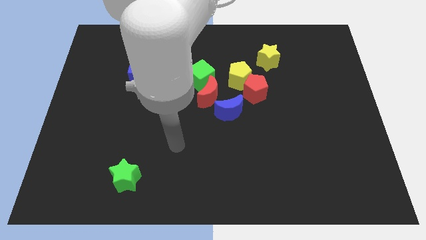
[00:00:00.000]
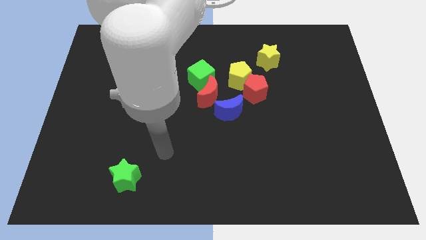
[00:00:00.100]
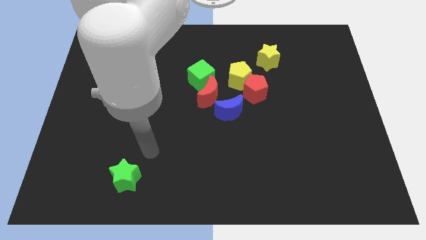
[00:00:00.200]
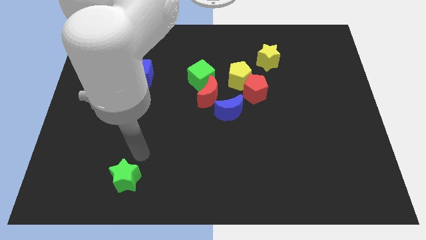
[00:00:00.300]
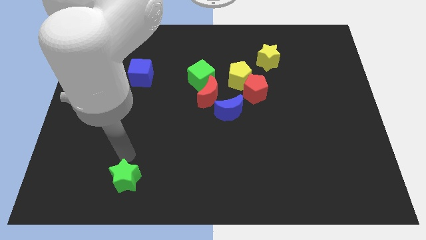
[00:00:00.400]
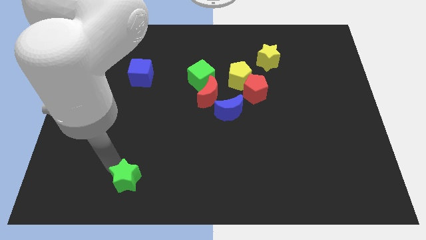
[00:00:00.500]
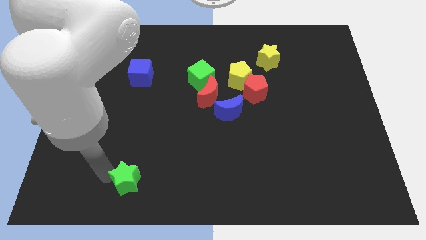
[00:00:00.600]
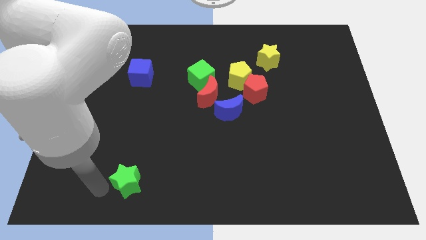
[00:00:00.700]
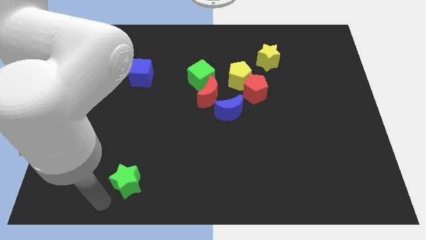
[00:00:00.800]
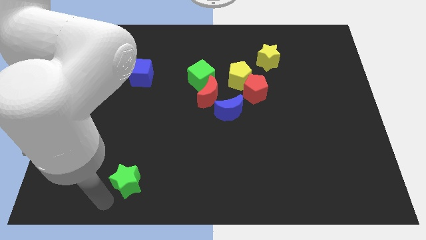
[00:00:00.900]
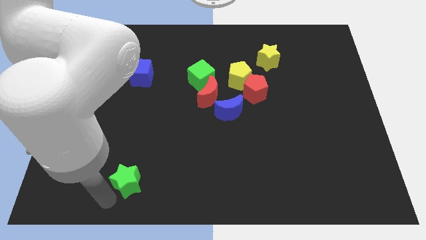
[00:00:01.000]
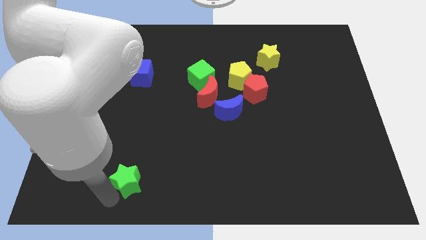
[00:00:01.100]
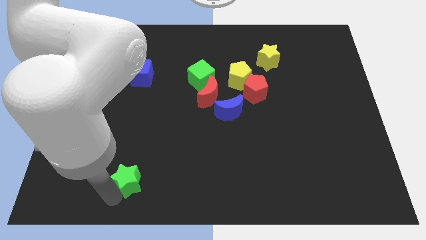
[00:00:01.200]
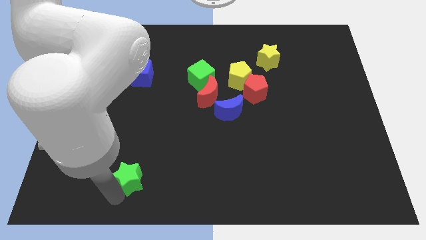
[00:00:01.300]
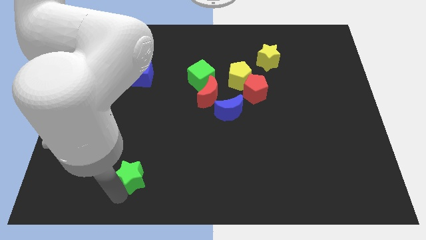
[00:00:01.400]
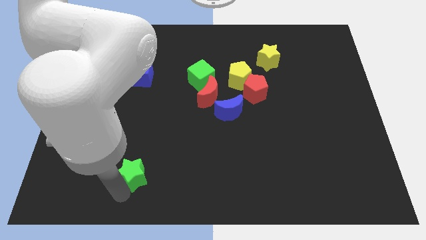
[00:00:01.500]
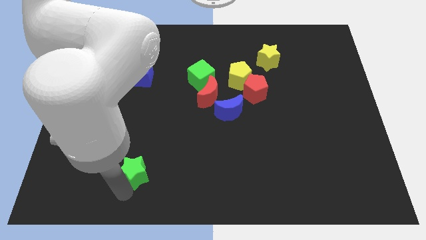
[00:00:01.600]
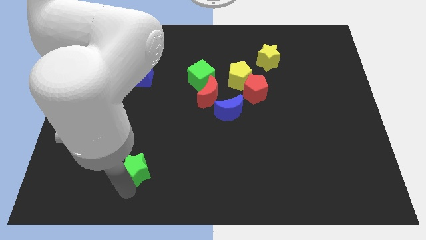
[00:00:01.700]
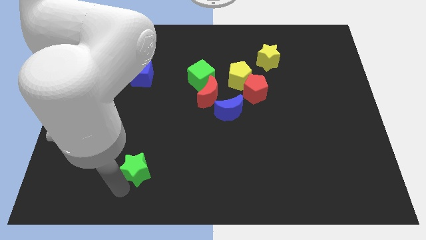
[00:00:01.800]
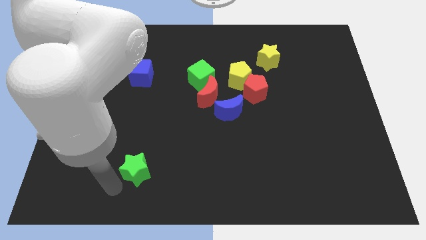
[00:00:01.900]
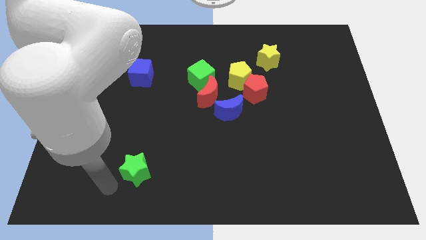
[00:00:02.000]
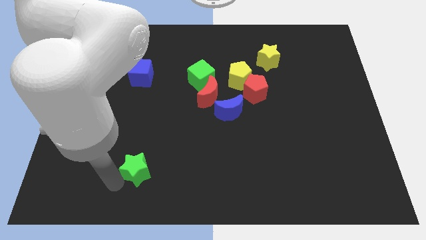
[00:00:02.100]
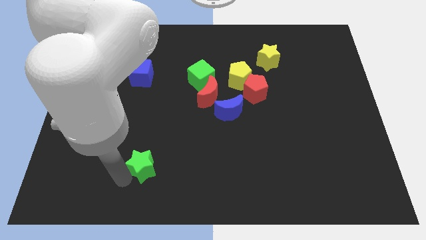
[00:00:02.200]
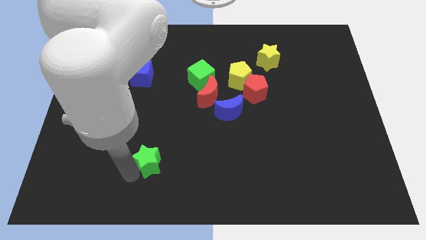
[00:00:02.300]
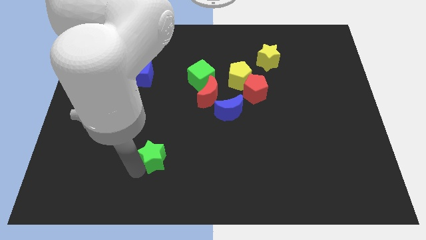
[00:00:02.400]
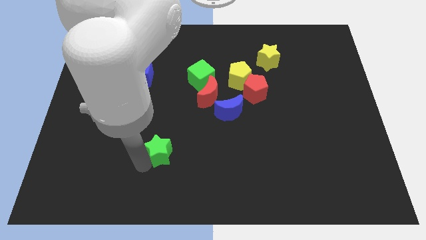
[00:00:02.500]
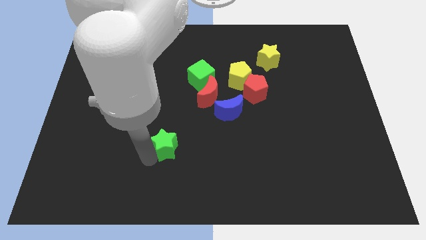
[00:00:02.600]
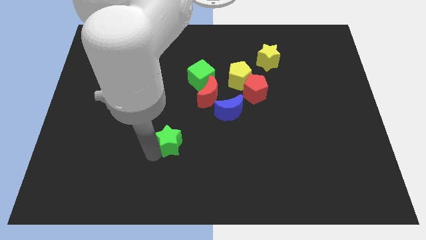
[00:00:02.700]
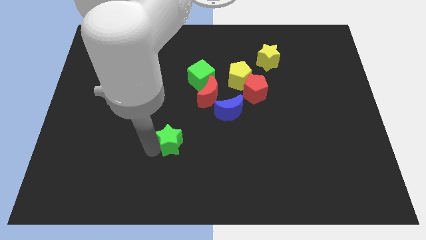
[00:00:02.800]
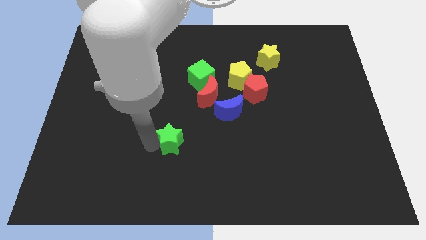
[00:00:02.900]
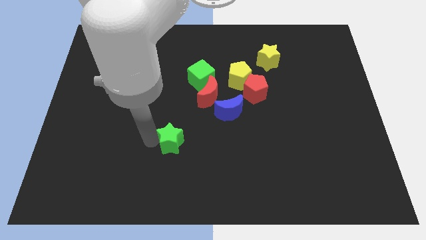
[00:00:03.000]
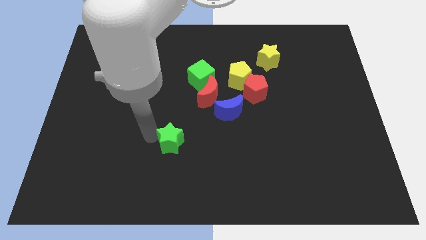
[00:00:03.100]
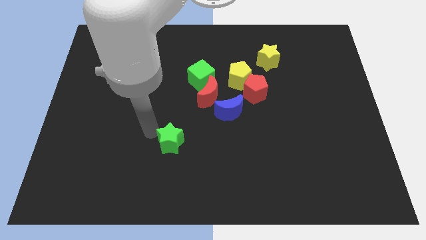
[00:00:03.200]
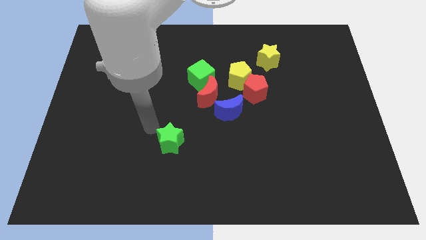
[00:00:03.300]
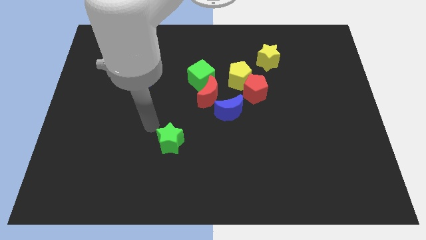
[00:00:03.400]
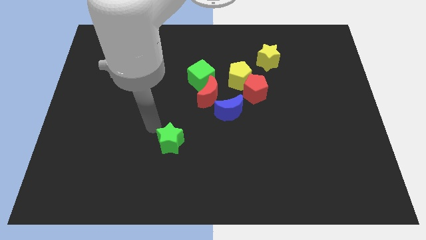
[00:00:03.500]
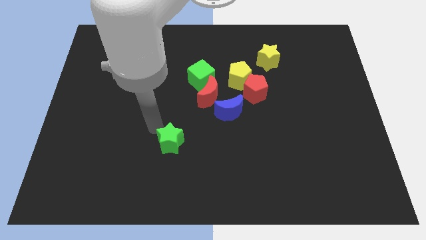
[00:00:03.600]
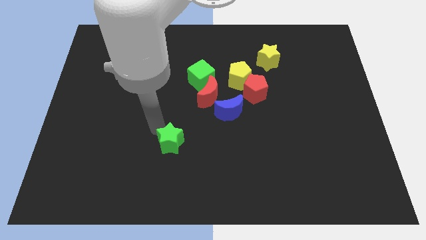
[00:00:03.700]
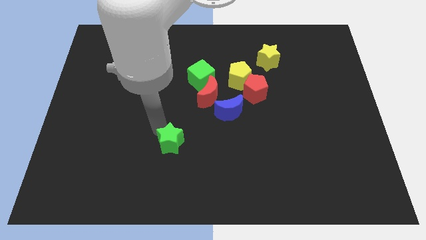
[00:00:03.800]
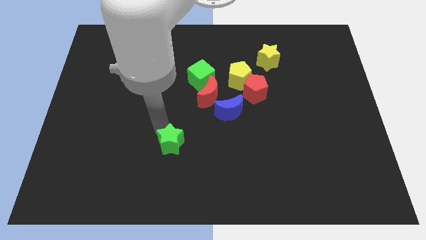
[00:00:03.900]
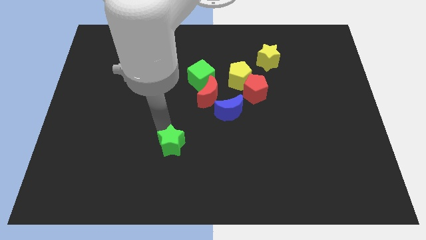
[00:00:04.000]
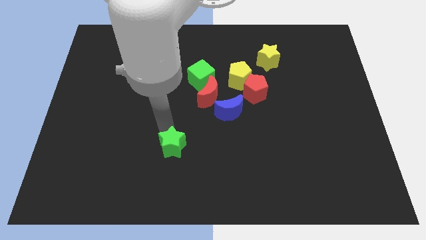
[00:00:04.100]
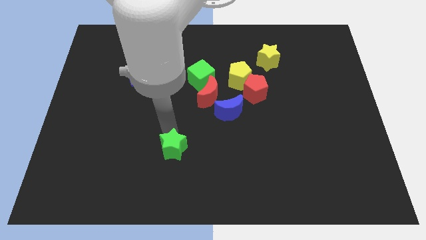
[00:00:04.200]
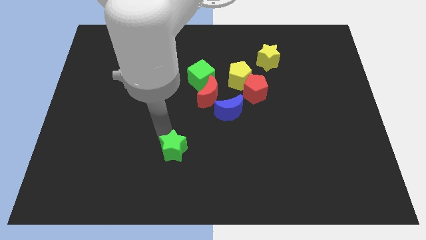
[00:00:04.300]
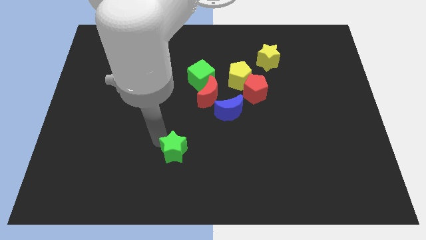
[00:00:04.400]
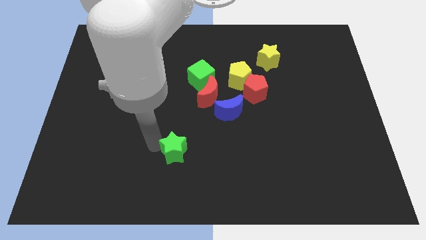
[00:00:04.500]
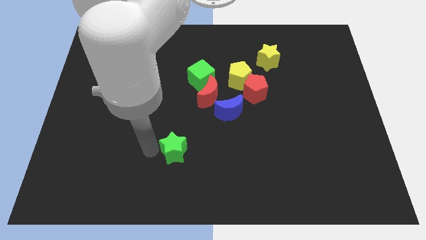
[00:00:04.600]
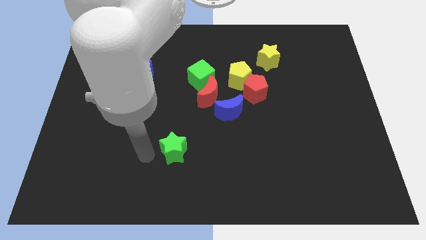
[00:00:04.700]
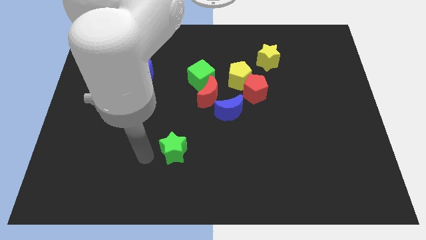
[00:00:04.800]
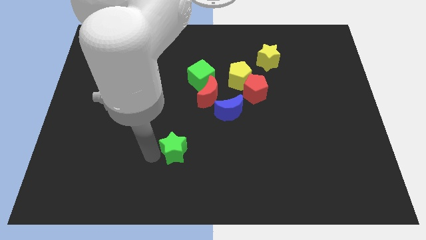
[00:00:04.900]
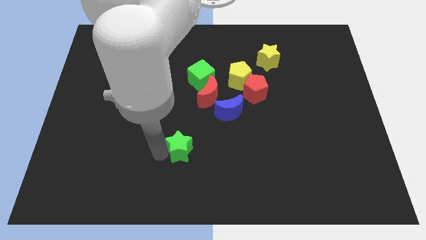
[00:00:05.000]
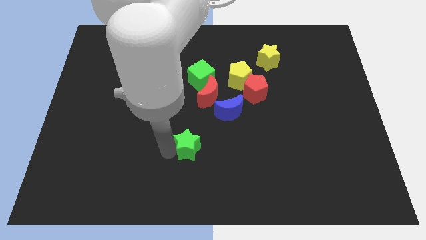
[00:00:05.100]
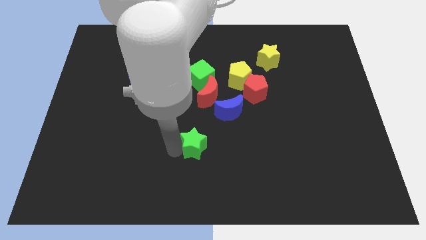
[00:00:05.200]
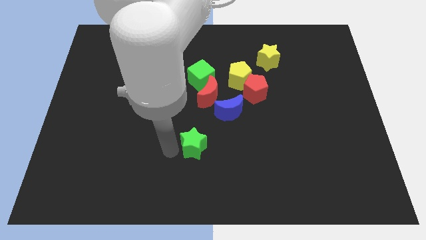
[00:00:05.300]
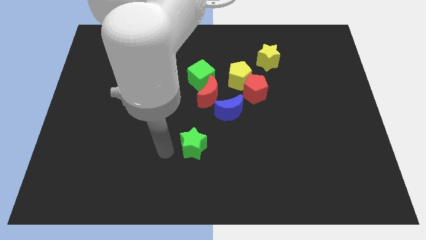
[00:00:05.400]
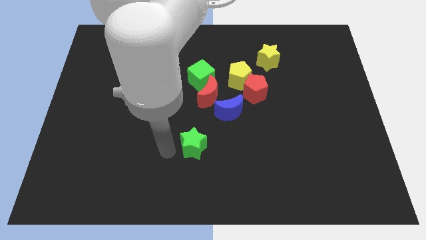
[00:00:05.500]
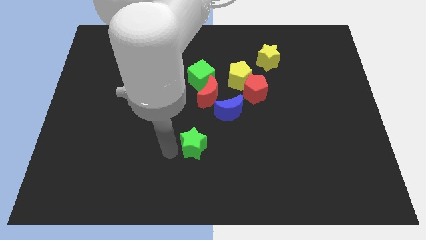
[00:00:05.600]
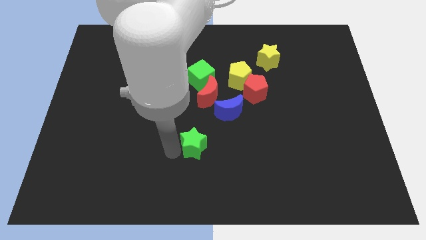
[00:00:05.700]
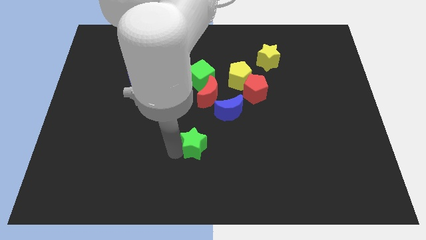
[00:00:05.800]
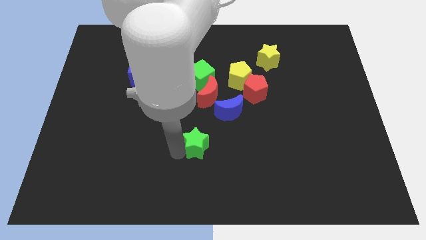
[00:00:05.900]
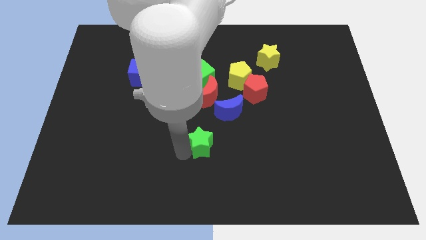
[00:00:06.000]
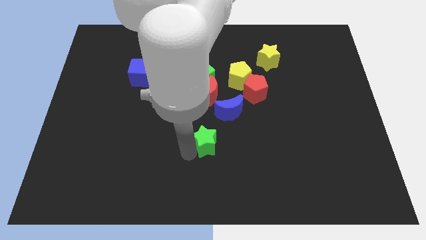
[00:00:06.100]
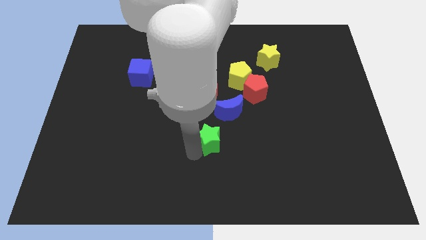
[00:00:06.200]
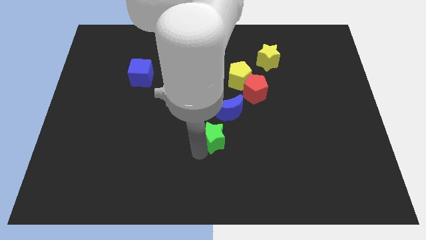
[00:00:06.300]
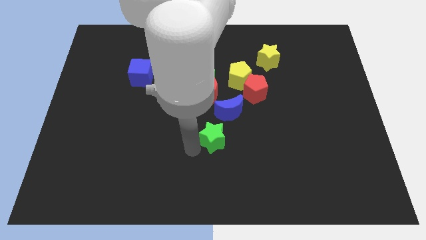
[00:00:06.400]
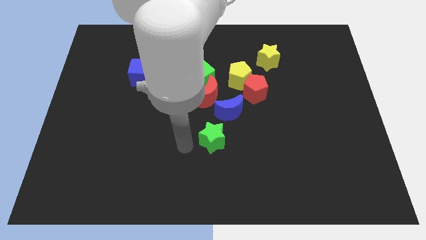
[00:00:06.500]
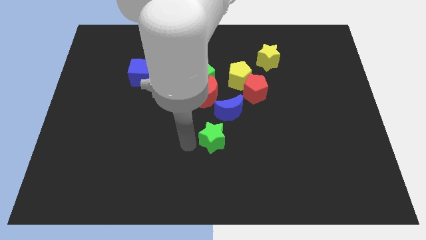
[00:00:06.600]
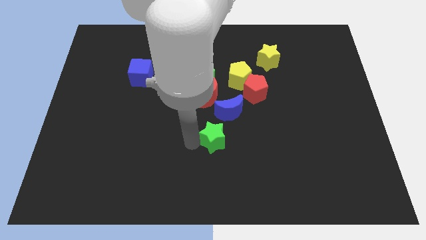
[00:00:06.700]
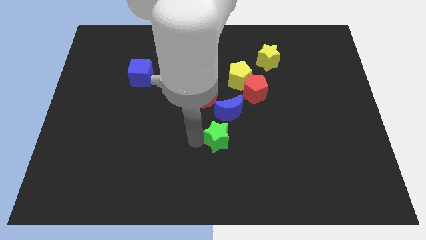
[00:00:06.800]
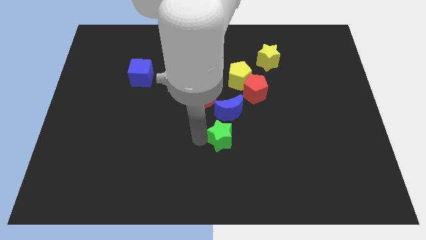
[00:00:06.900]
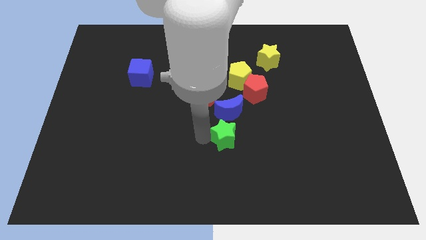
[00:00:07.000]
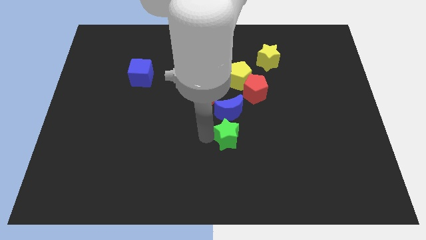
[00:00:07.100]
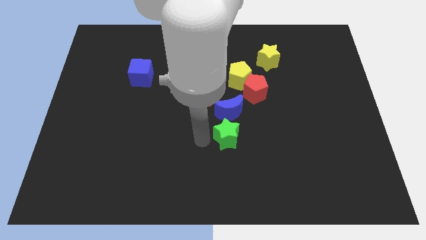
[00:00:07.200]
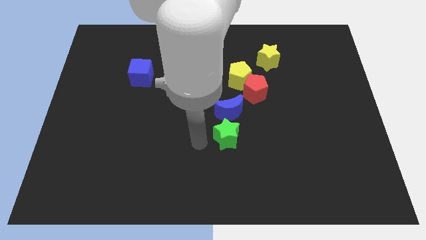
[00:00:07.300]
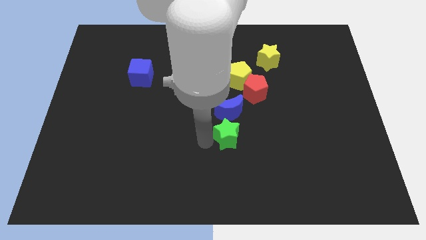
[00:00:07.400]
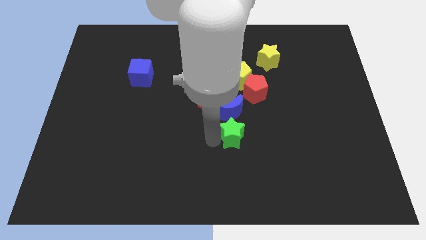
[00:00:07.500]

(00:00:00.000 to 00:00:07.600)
put the green star diagonally down and to the right of the blue moon
